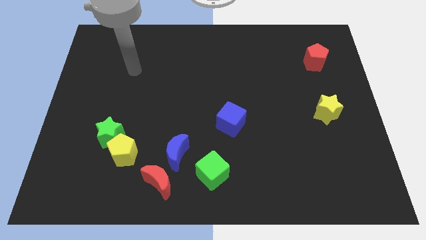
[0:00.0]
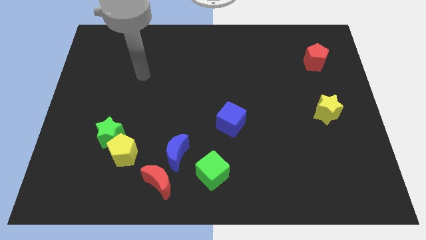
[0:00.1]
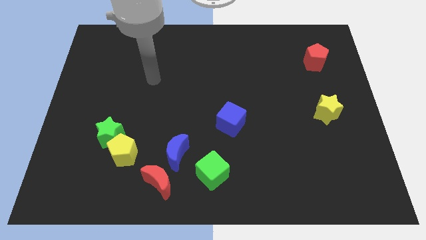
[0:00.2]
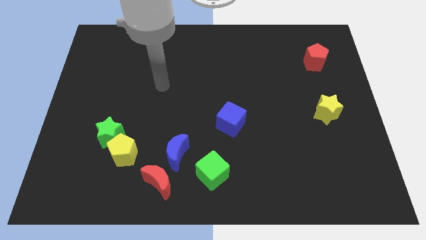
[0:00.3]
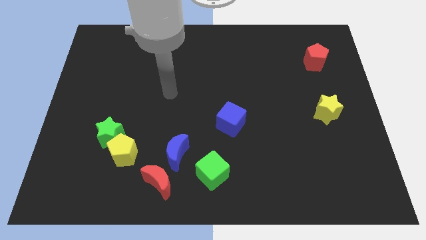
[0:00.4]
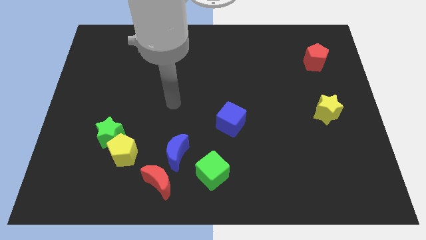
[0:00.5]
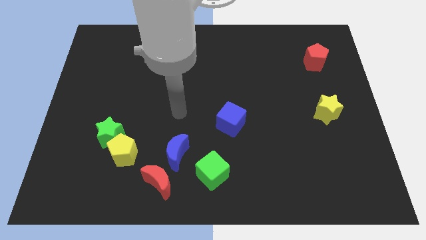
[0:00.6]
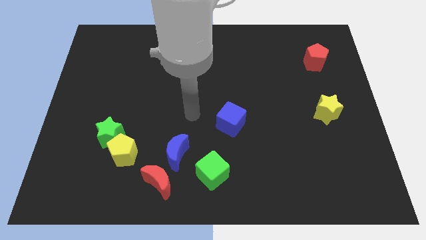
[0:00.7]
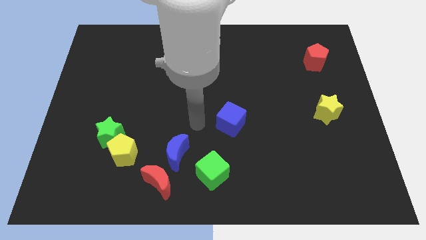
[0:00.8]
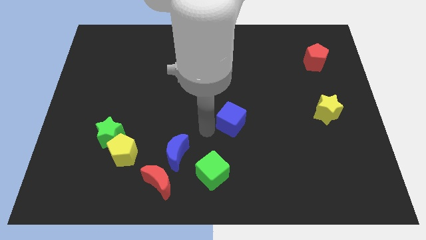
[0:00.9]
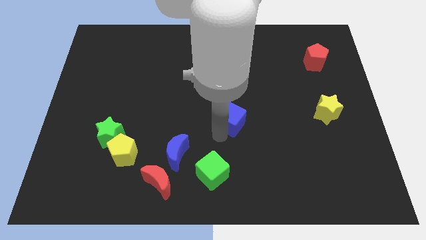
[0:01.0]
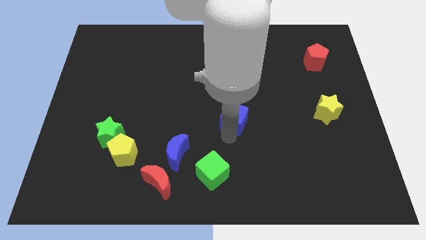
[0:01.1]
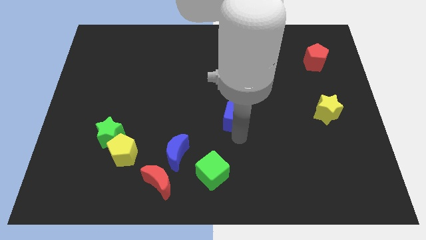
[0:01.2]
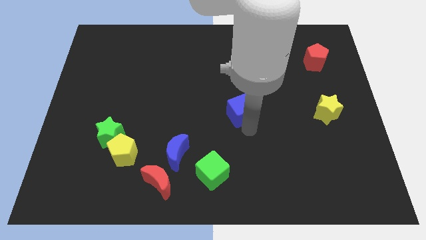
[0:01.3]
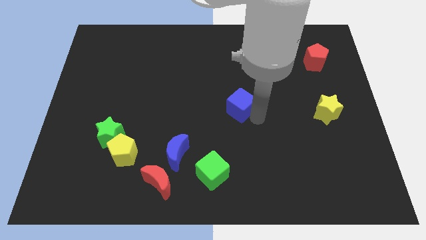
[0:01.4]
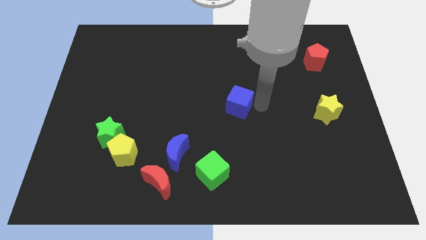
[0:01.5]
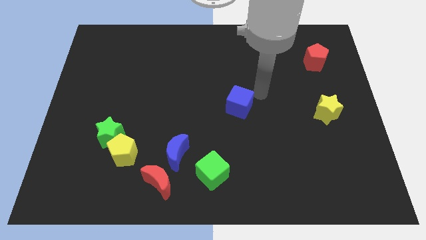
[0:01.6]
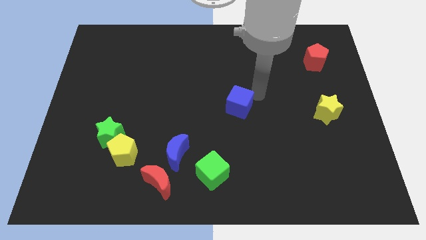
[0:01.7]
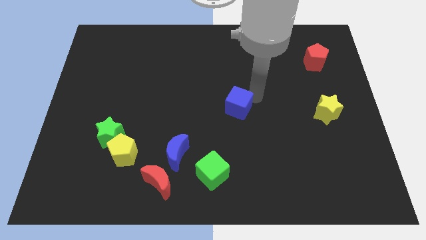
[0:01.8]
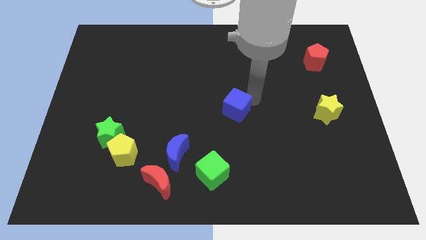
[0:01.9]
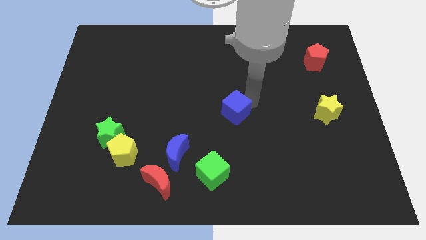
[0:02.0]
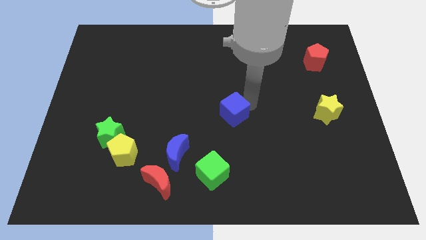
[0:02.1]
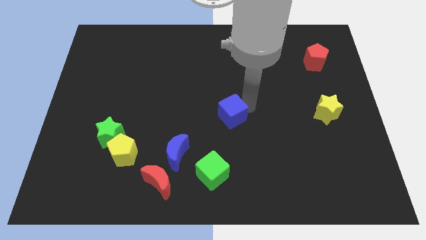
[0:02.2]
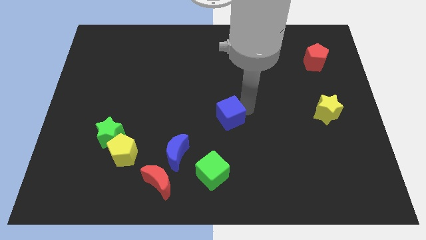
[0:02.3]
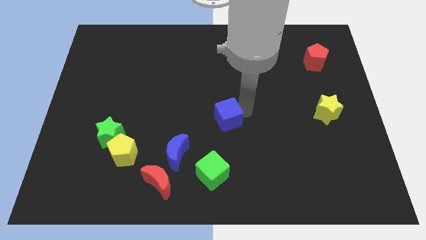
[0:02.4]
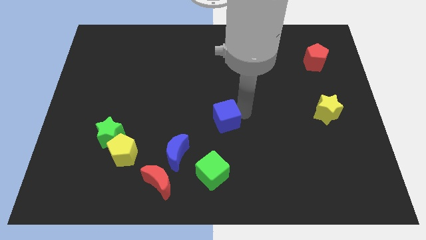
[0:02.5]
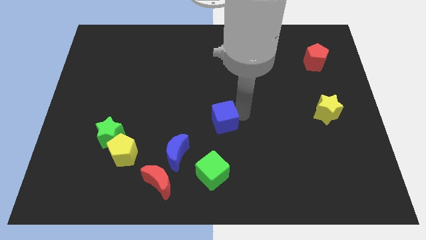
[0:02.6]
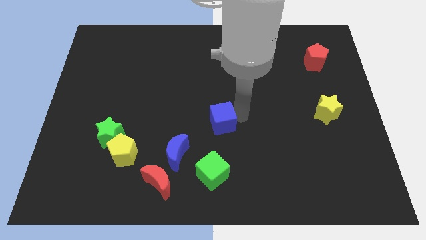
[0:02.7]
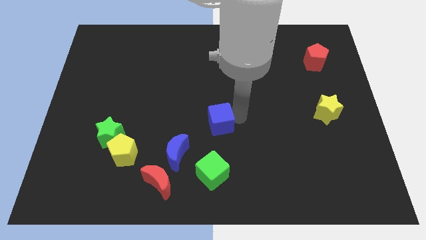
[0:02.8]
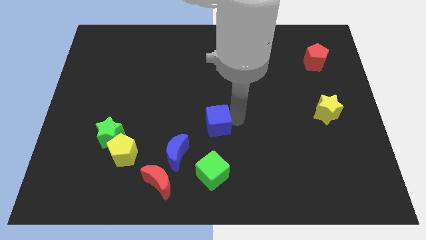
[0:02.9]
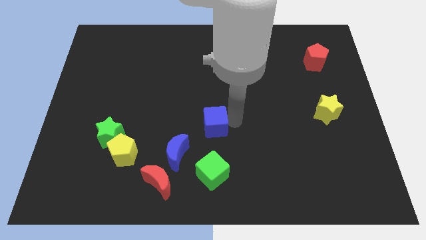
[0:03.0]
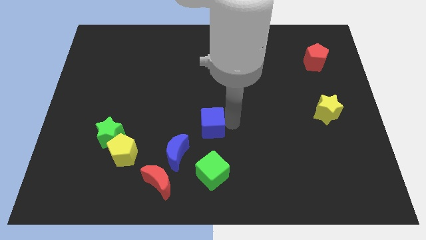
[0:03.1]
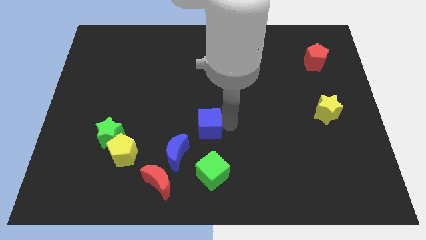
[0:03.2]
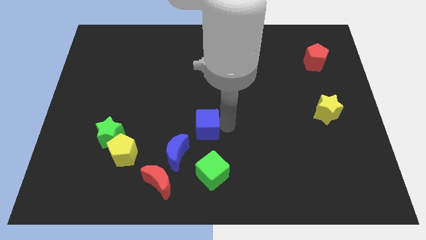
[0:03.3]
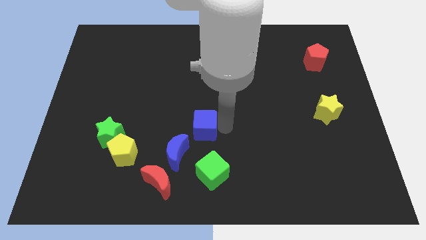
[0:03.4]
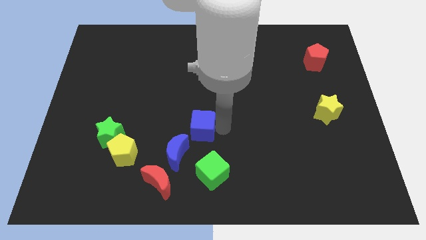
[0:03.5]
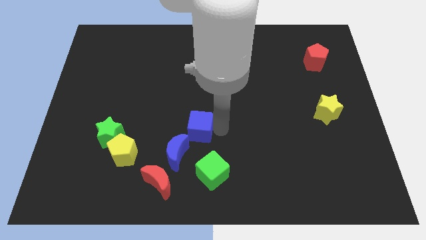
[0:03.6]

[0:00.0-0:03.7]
slightly push the blue cube left

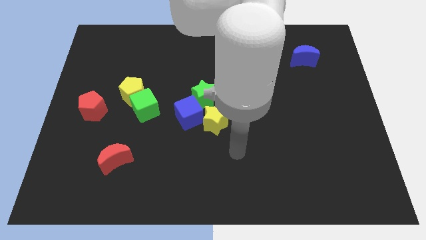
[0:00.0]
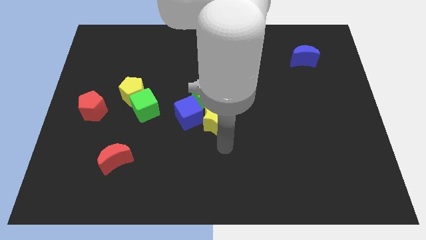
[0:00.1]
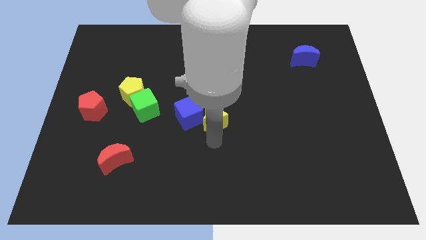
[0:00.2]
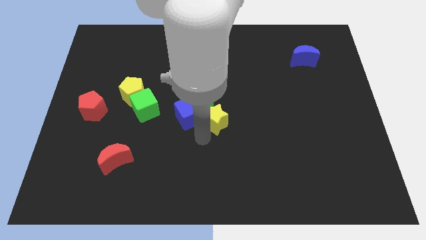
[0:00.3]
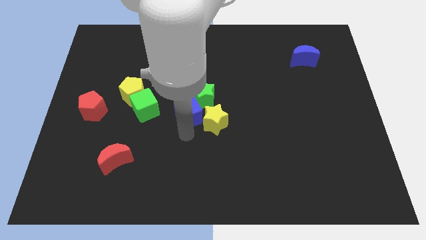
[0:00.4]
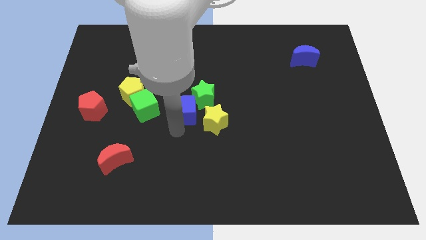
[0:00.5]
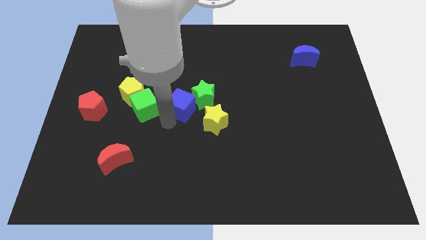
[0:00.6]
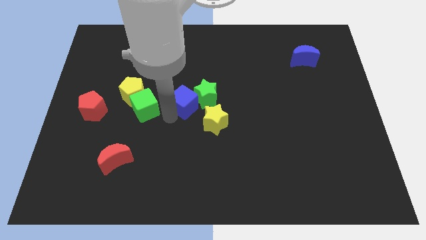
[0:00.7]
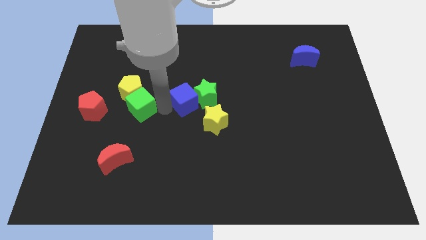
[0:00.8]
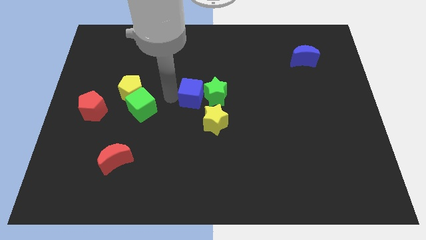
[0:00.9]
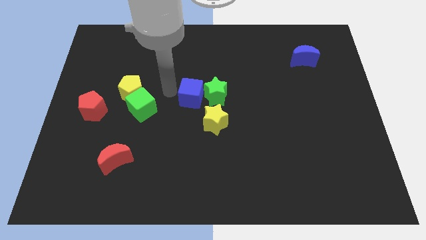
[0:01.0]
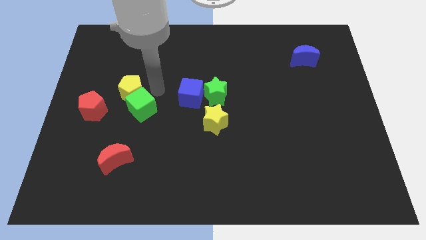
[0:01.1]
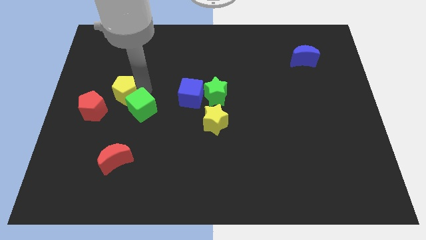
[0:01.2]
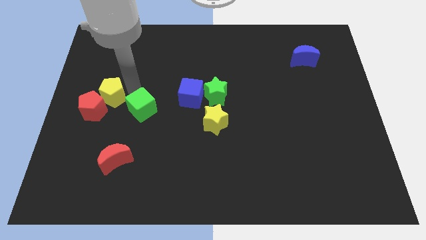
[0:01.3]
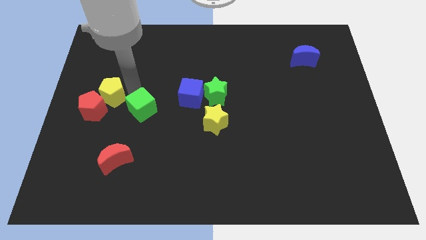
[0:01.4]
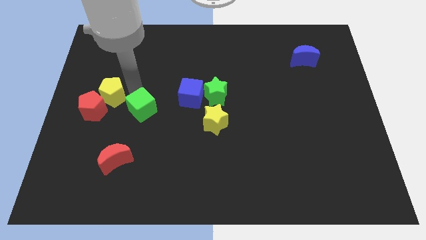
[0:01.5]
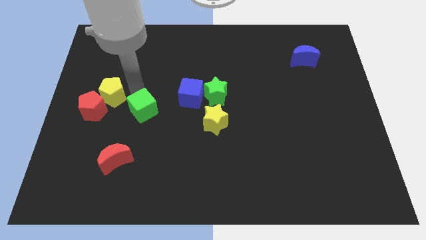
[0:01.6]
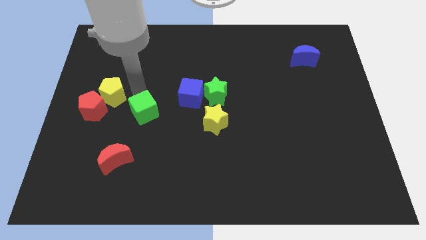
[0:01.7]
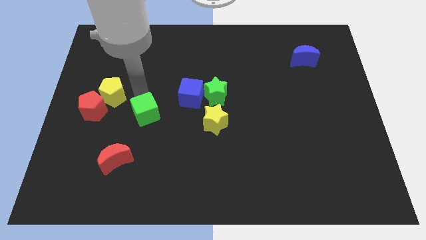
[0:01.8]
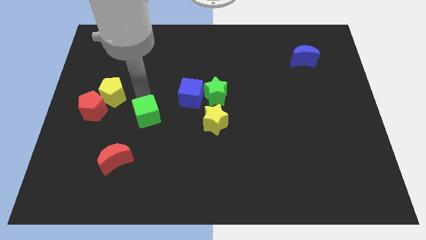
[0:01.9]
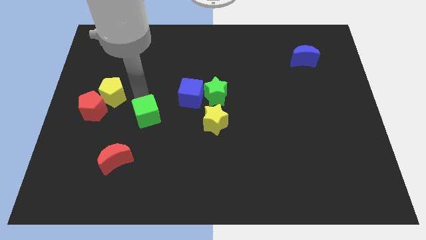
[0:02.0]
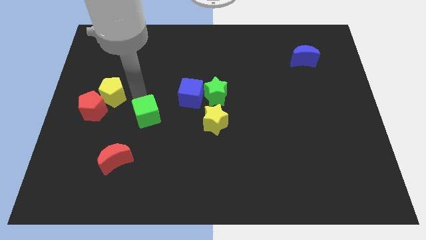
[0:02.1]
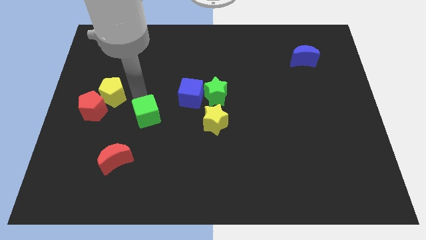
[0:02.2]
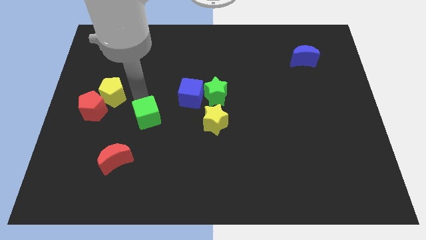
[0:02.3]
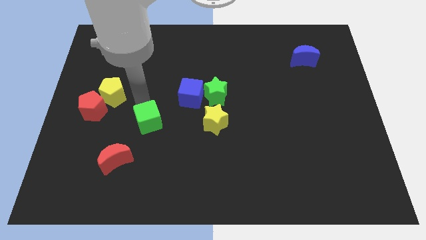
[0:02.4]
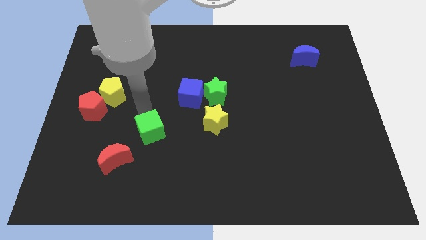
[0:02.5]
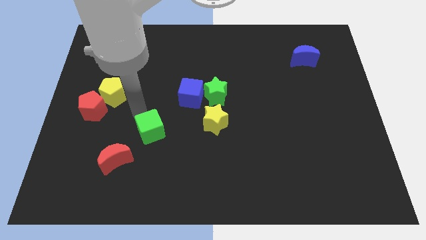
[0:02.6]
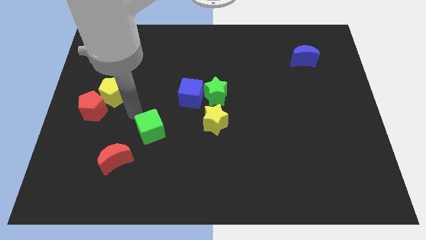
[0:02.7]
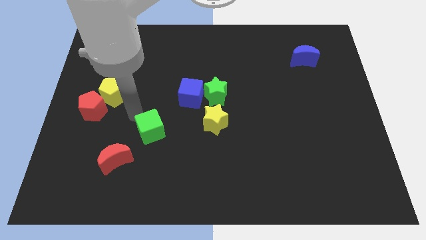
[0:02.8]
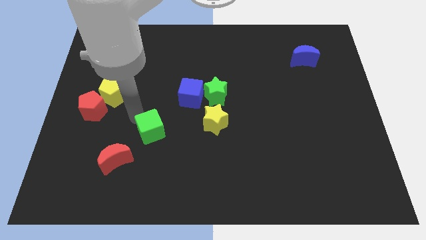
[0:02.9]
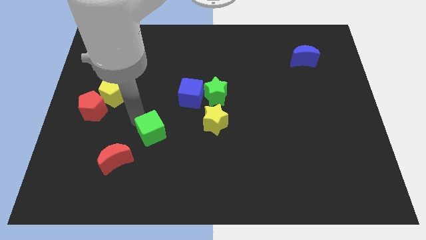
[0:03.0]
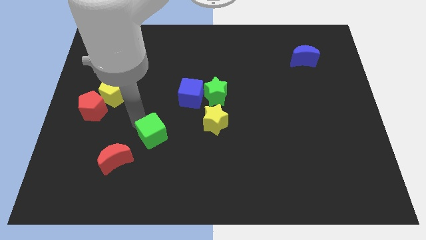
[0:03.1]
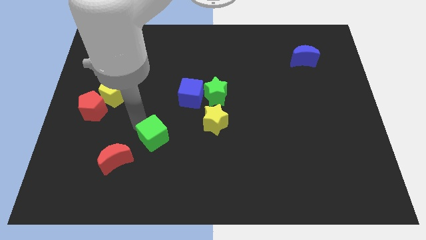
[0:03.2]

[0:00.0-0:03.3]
push the green cube down and then to the right slightly

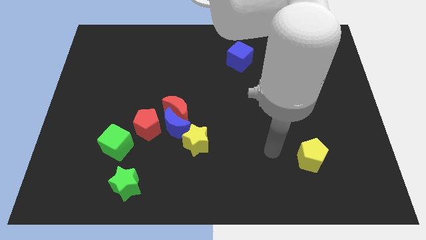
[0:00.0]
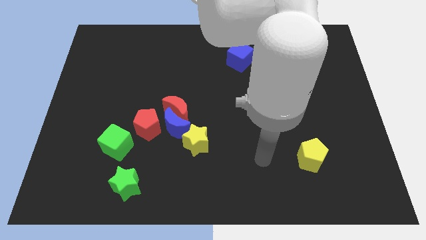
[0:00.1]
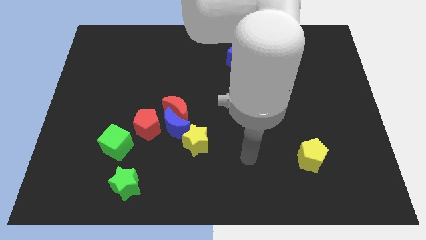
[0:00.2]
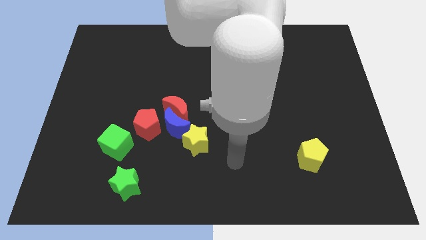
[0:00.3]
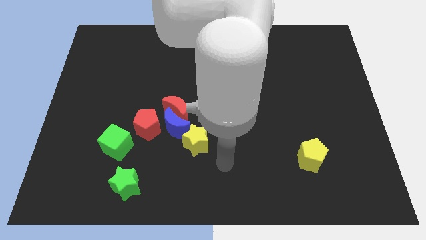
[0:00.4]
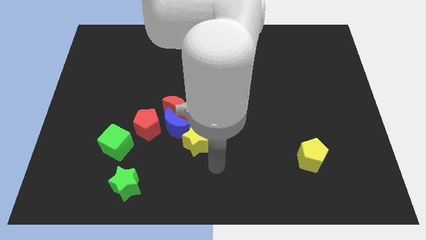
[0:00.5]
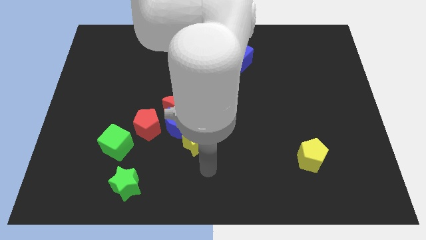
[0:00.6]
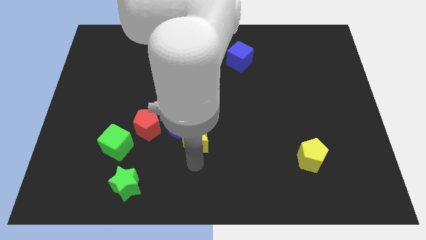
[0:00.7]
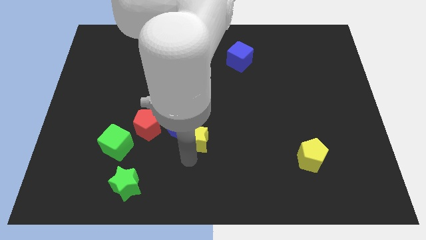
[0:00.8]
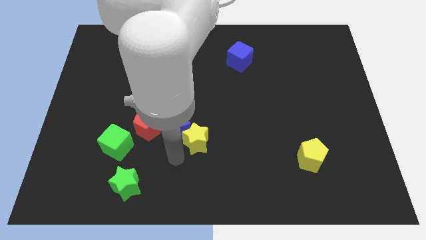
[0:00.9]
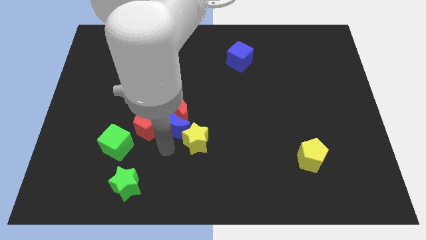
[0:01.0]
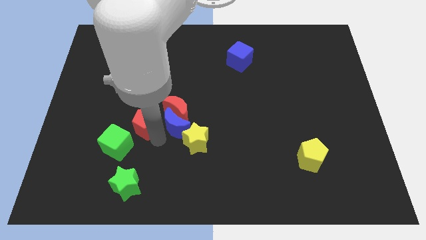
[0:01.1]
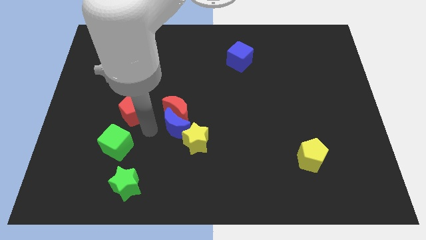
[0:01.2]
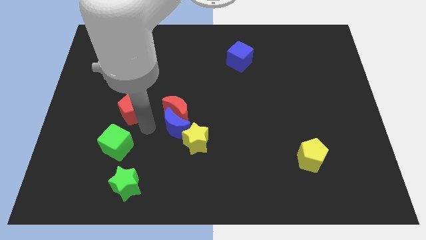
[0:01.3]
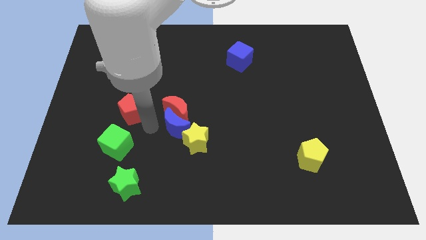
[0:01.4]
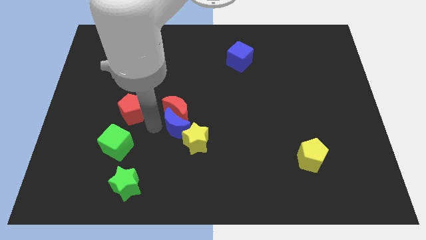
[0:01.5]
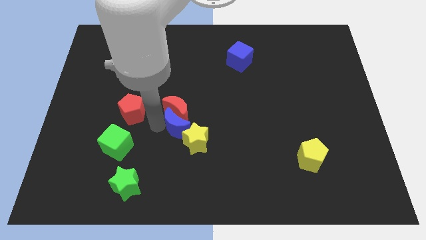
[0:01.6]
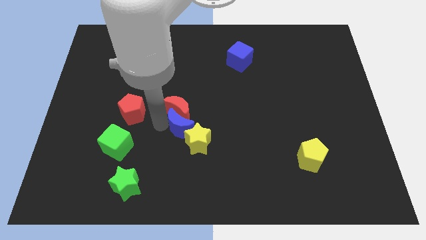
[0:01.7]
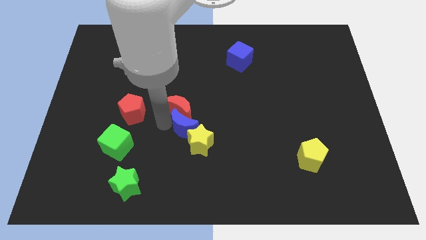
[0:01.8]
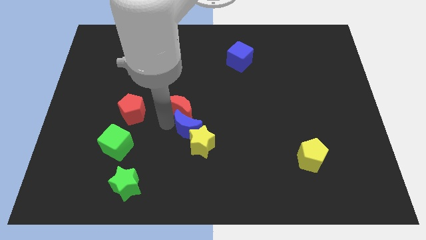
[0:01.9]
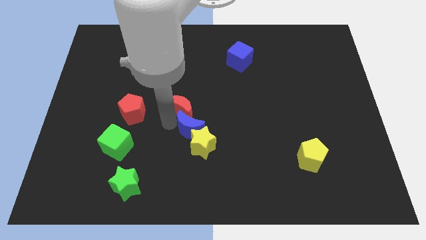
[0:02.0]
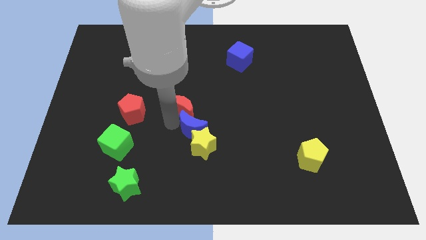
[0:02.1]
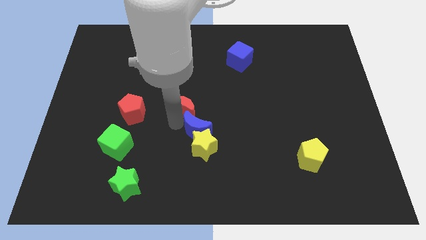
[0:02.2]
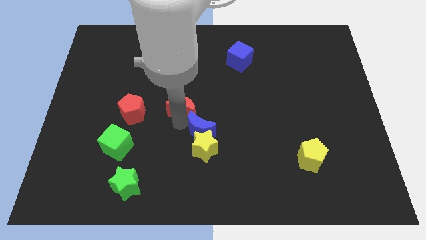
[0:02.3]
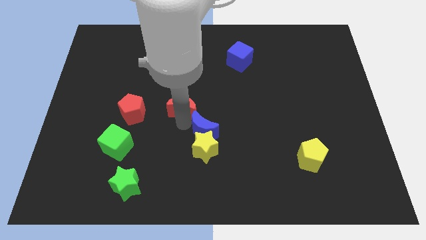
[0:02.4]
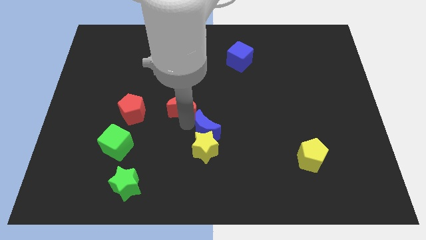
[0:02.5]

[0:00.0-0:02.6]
move the blue moon slightly right
